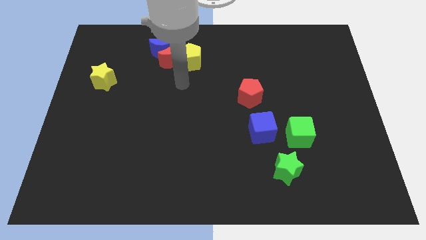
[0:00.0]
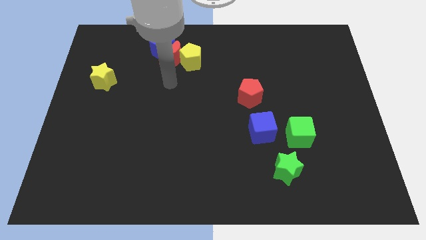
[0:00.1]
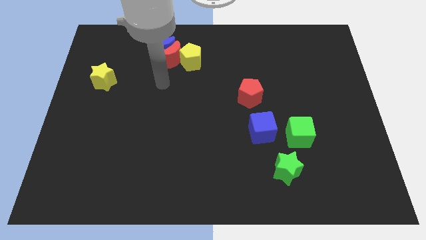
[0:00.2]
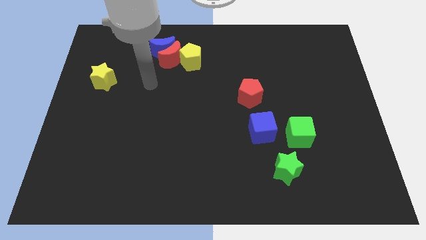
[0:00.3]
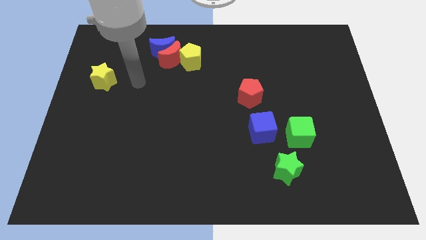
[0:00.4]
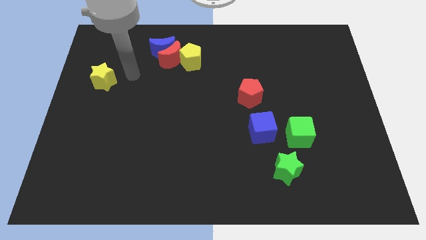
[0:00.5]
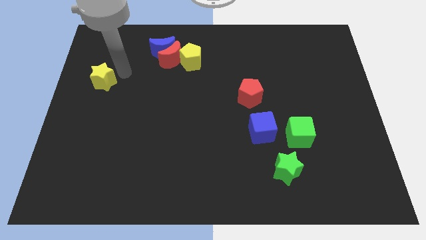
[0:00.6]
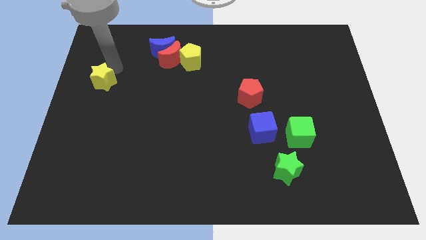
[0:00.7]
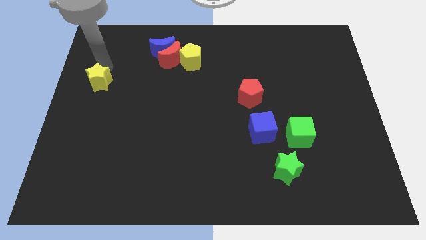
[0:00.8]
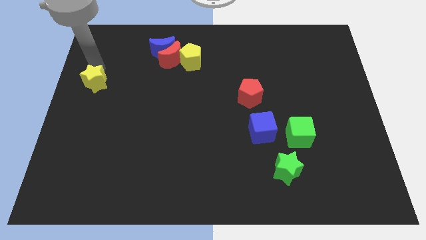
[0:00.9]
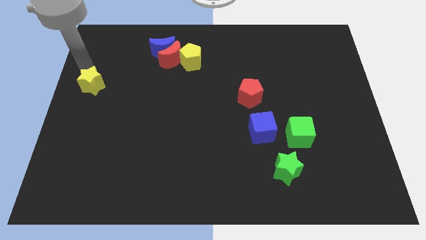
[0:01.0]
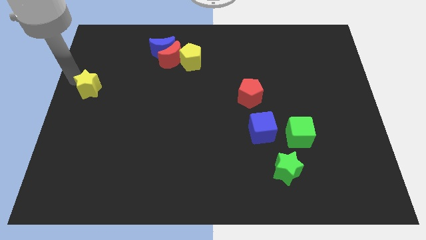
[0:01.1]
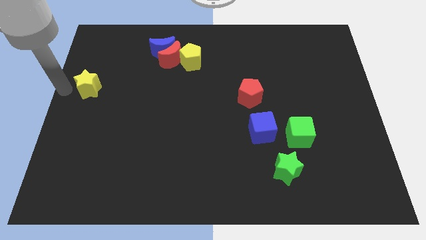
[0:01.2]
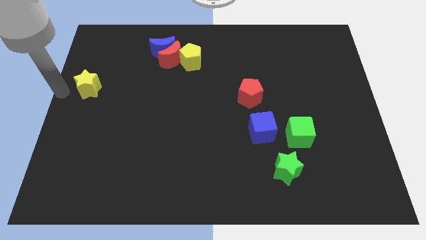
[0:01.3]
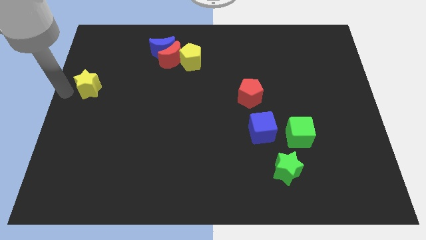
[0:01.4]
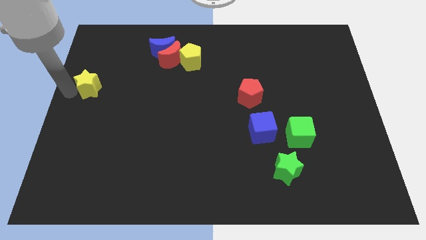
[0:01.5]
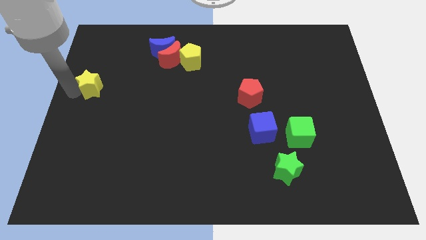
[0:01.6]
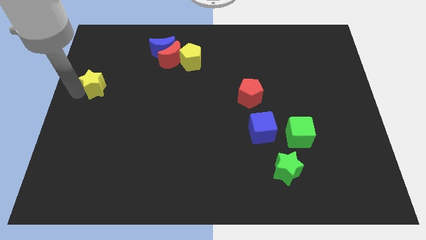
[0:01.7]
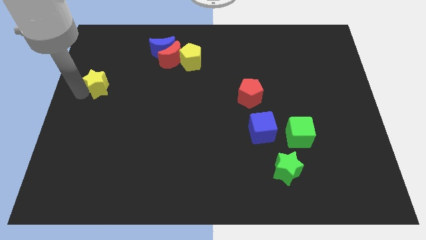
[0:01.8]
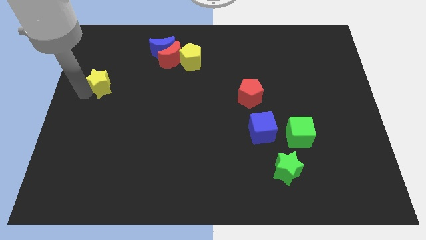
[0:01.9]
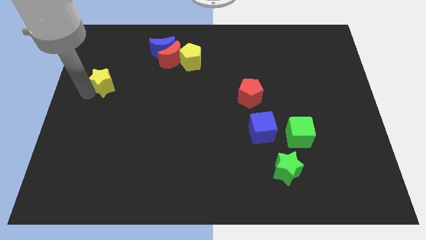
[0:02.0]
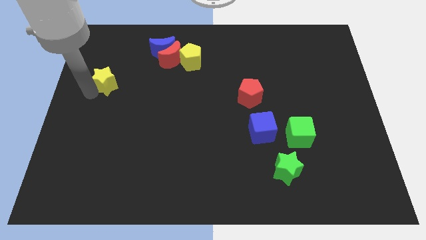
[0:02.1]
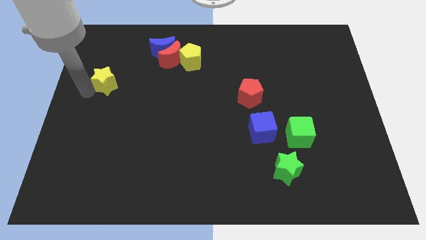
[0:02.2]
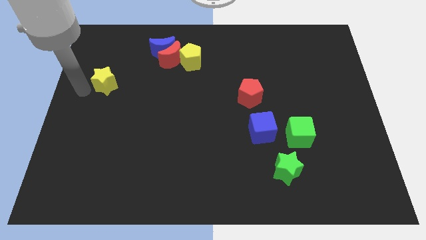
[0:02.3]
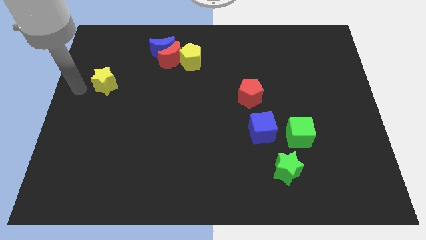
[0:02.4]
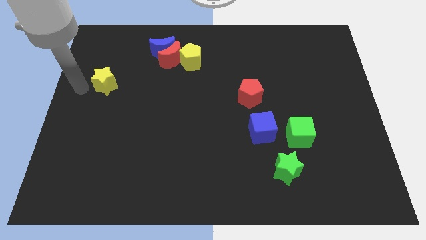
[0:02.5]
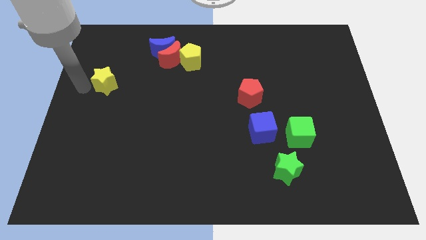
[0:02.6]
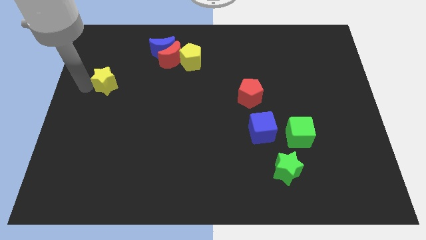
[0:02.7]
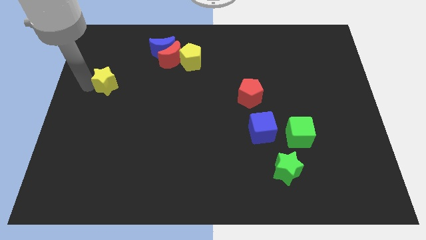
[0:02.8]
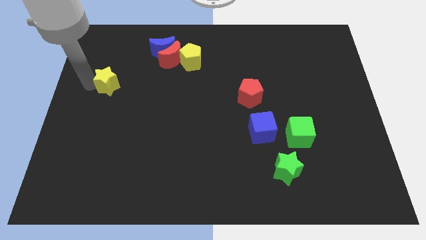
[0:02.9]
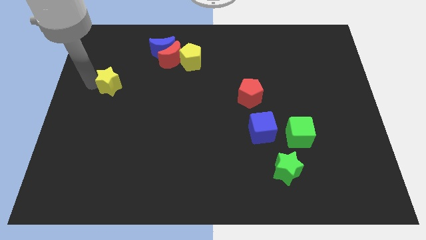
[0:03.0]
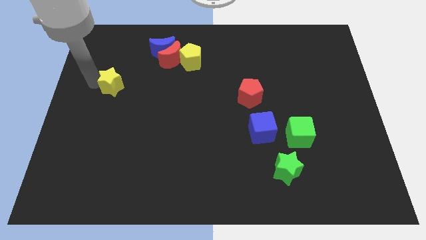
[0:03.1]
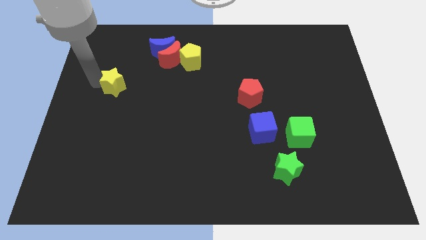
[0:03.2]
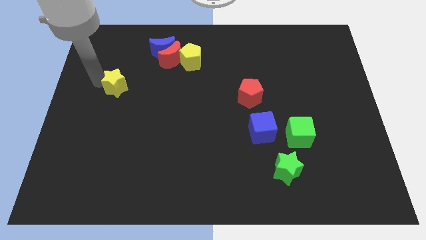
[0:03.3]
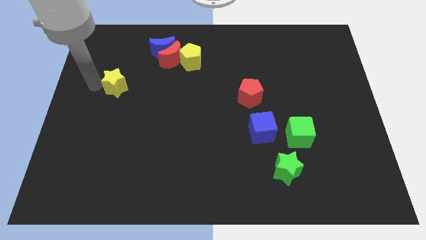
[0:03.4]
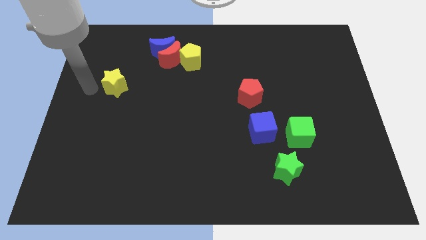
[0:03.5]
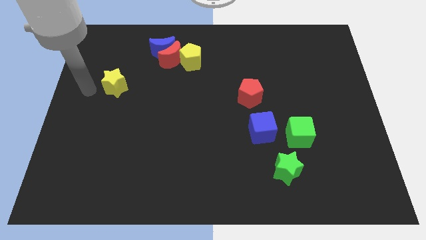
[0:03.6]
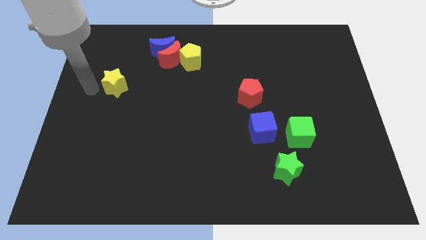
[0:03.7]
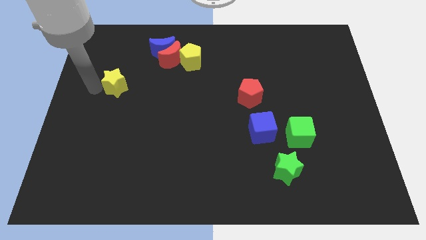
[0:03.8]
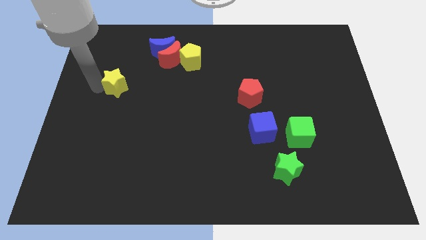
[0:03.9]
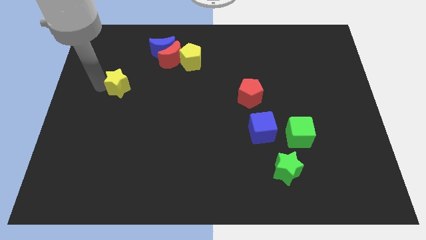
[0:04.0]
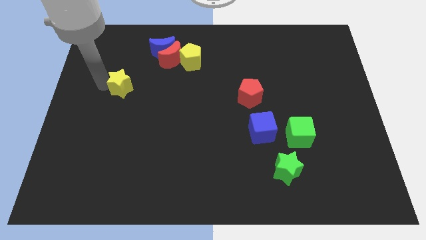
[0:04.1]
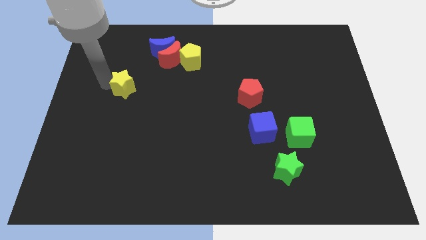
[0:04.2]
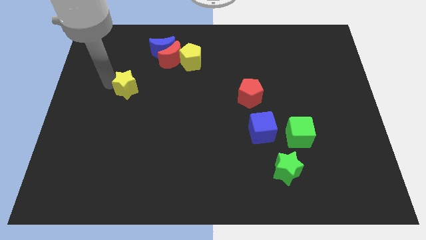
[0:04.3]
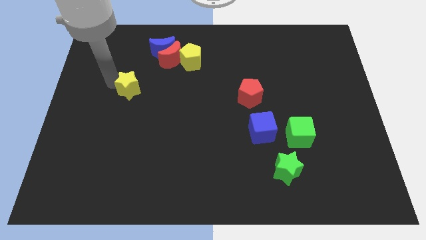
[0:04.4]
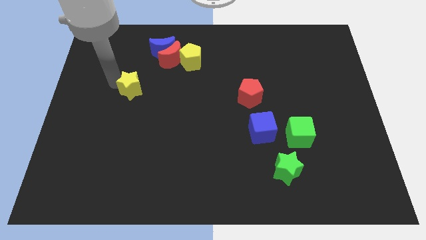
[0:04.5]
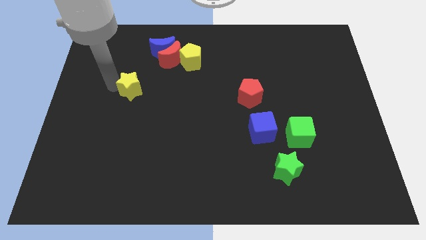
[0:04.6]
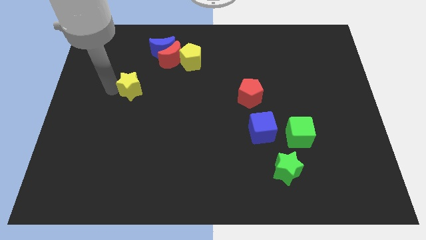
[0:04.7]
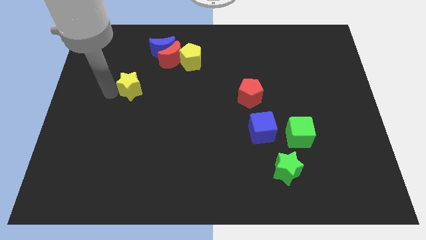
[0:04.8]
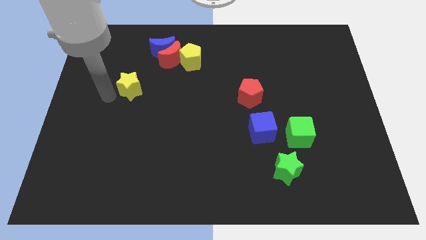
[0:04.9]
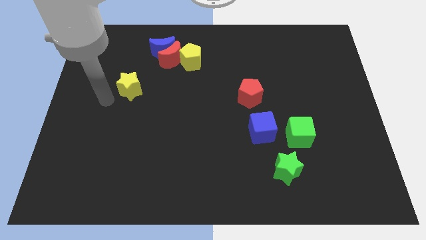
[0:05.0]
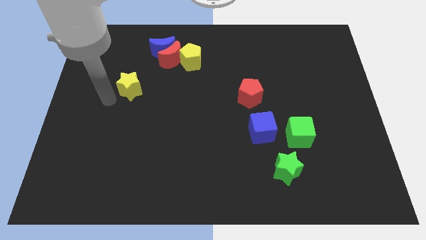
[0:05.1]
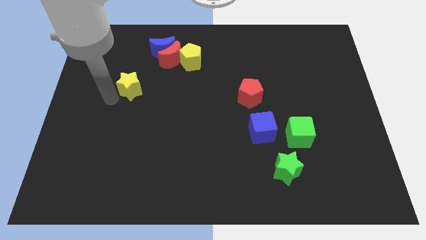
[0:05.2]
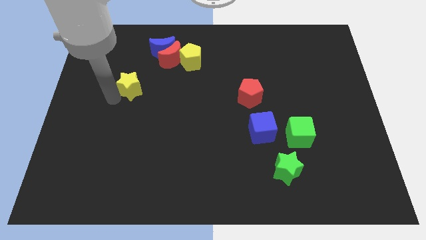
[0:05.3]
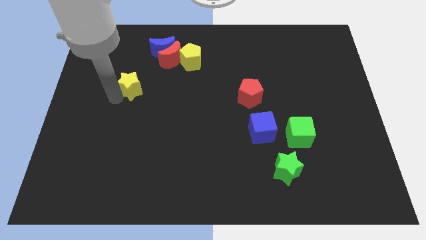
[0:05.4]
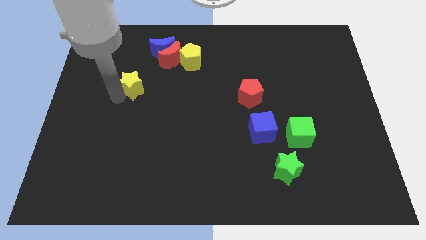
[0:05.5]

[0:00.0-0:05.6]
slide the yellow star to the right a little bit

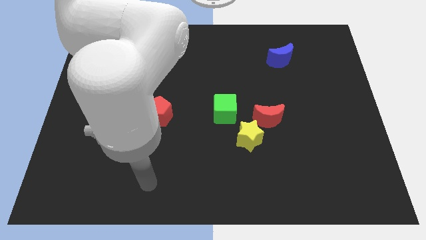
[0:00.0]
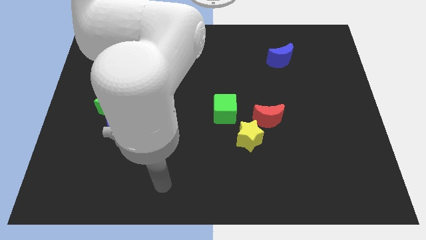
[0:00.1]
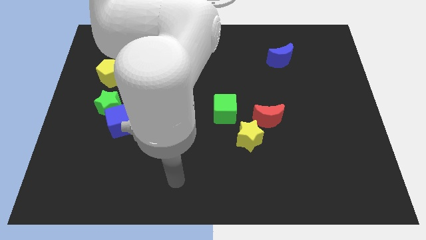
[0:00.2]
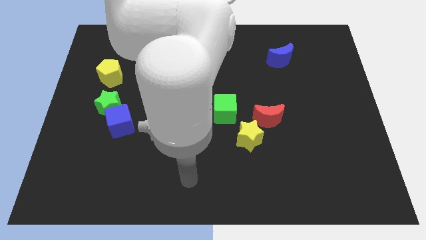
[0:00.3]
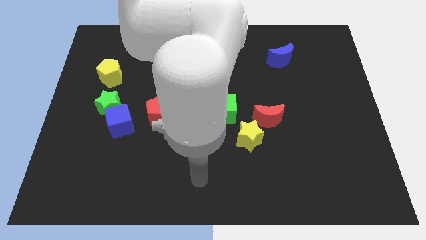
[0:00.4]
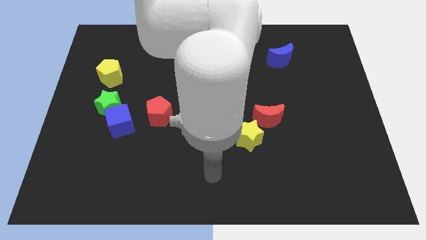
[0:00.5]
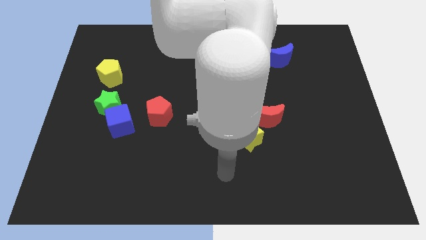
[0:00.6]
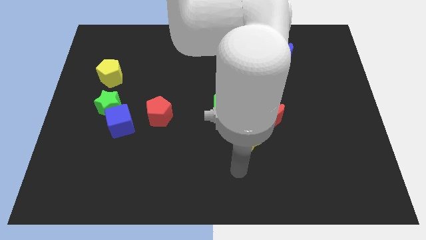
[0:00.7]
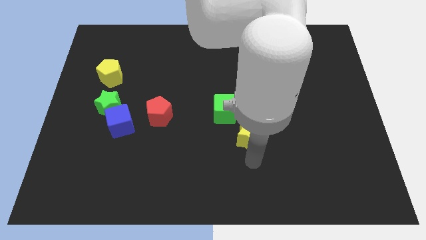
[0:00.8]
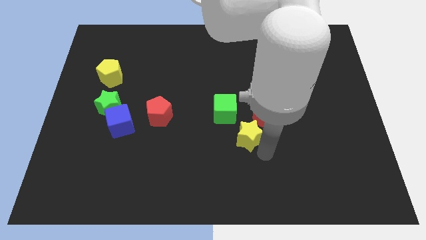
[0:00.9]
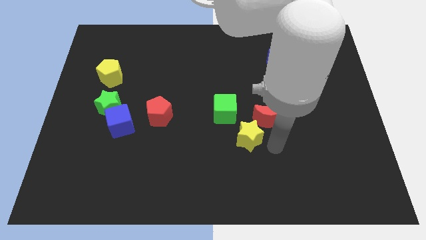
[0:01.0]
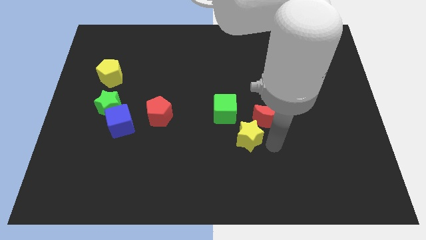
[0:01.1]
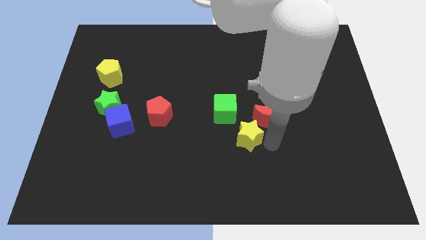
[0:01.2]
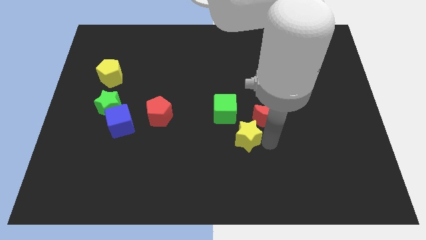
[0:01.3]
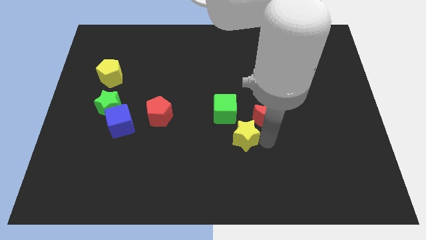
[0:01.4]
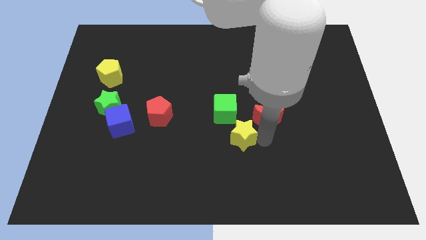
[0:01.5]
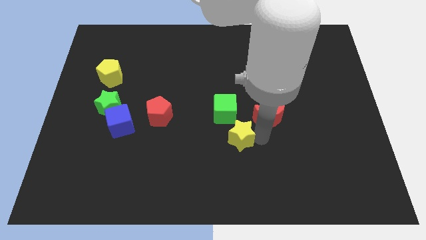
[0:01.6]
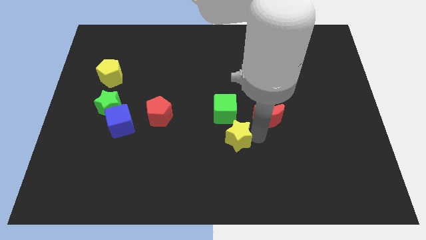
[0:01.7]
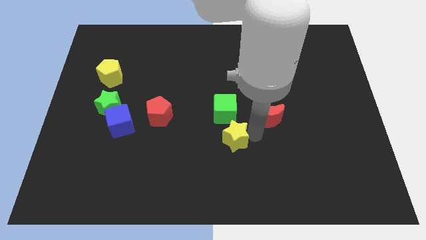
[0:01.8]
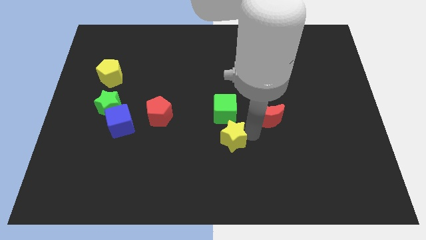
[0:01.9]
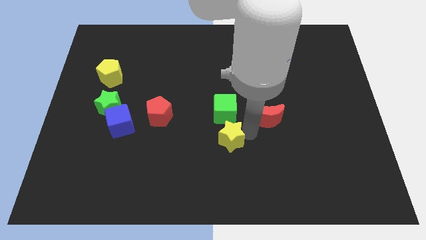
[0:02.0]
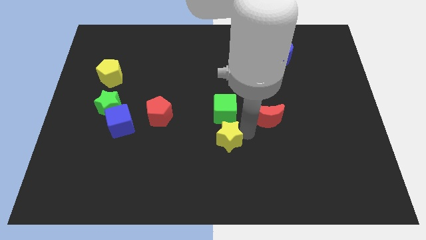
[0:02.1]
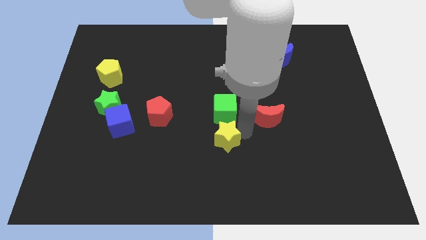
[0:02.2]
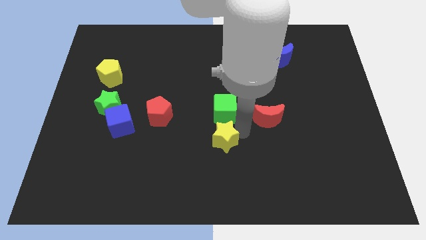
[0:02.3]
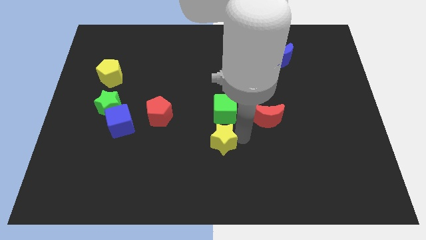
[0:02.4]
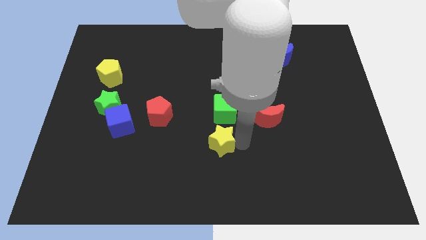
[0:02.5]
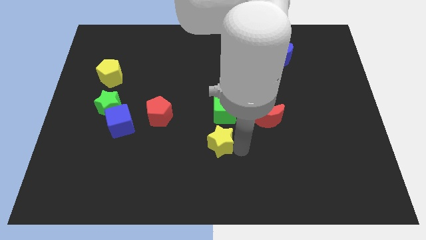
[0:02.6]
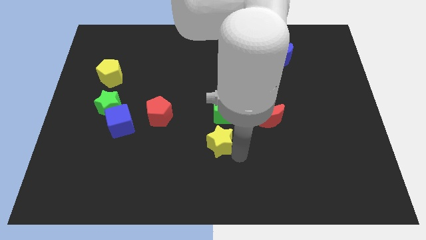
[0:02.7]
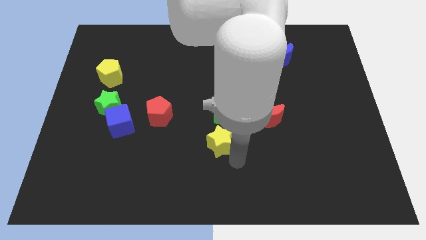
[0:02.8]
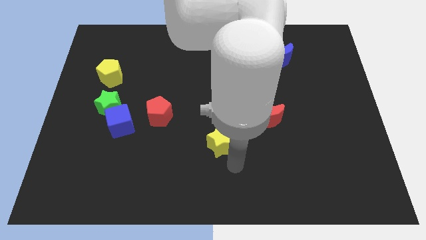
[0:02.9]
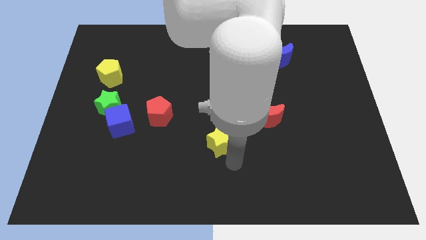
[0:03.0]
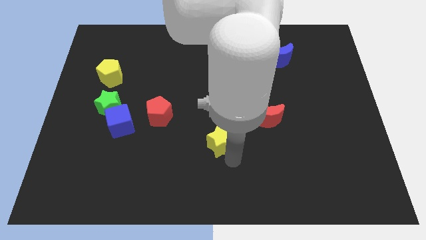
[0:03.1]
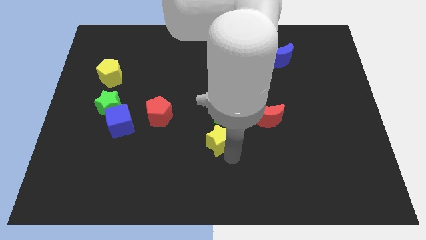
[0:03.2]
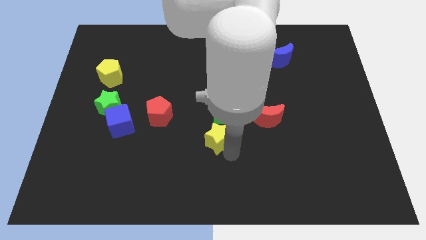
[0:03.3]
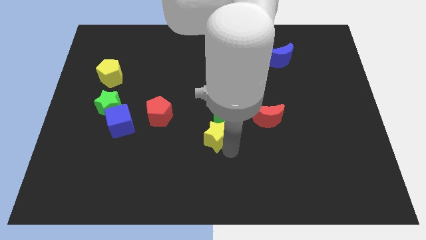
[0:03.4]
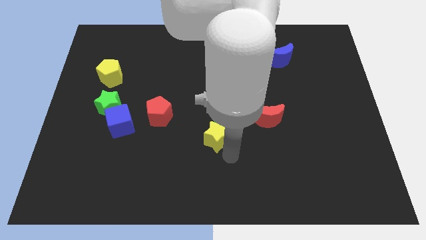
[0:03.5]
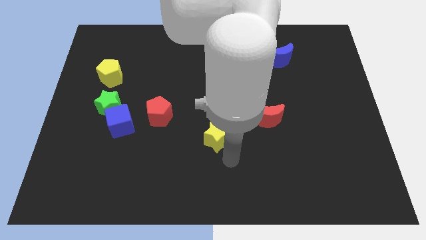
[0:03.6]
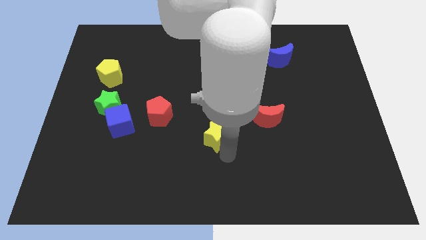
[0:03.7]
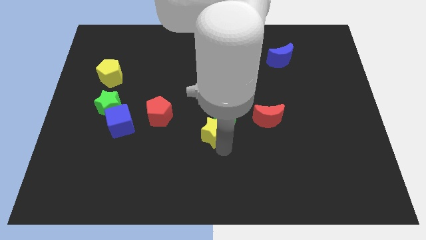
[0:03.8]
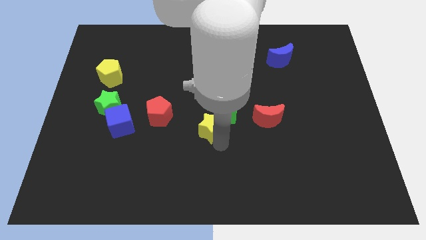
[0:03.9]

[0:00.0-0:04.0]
slightly slide the yellow star up and left diagonally
